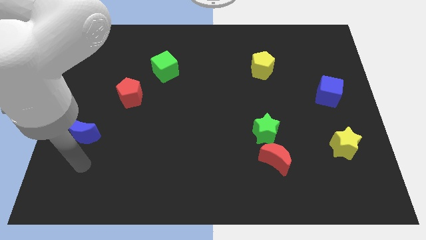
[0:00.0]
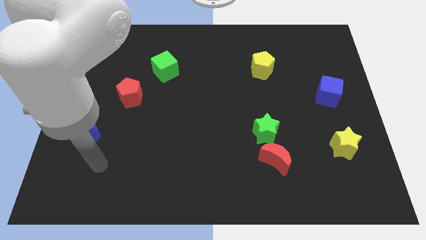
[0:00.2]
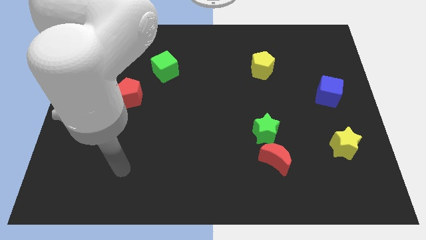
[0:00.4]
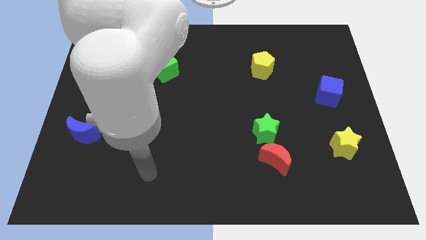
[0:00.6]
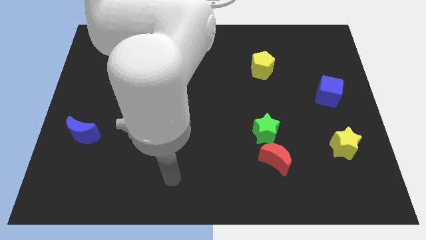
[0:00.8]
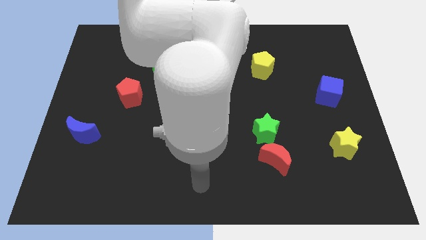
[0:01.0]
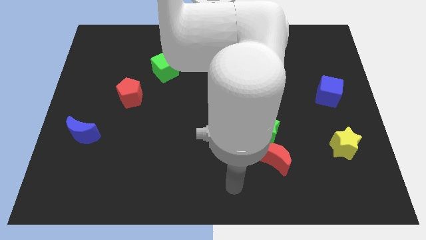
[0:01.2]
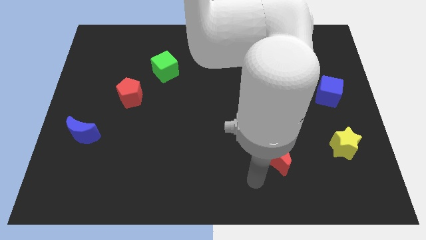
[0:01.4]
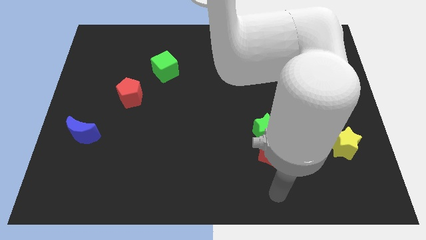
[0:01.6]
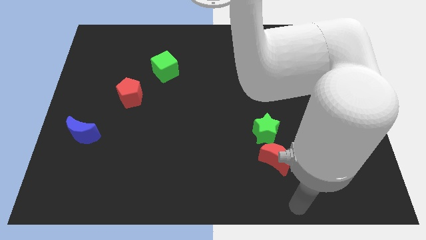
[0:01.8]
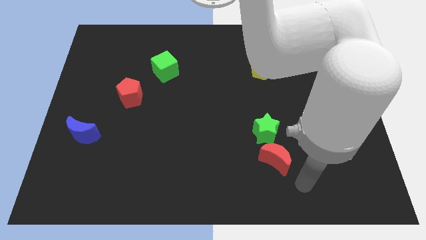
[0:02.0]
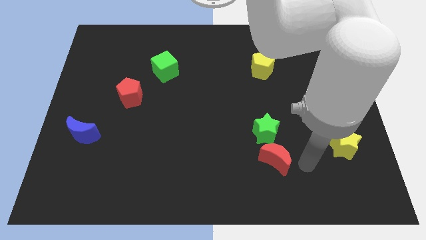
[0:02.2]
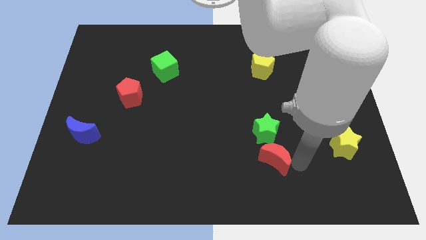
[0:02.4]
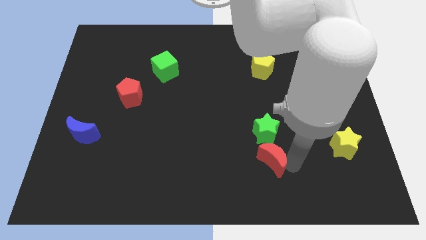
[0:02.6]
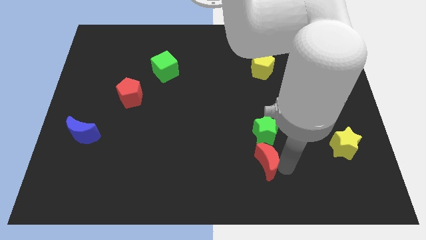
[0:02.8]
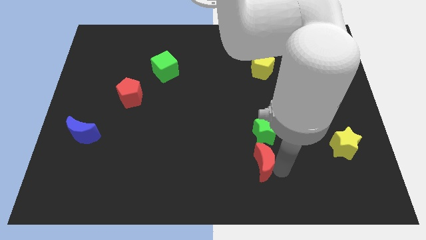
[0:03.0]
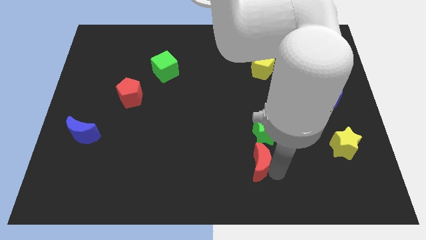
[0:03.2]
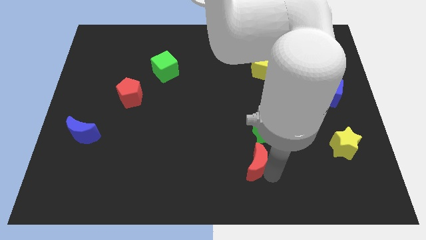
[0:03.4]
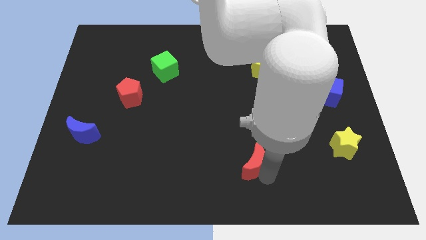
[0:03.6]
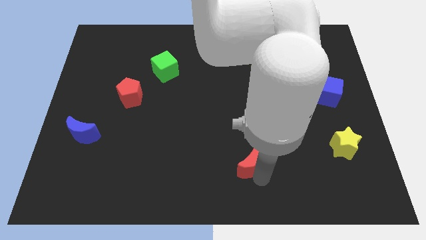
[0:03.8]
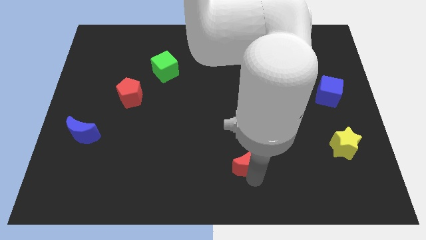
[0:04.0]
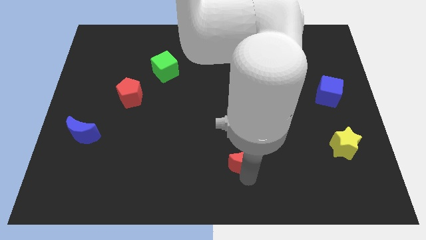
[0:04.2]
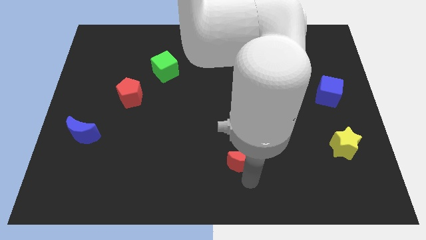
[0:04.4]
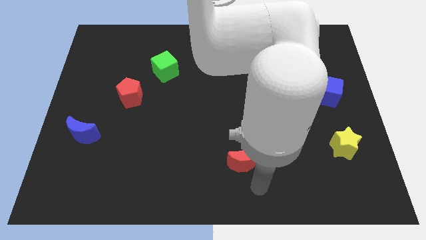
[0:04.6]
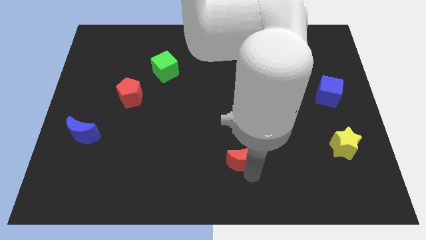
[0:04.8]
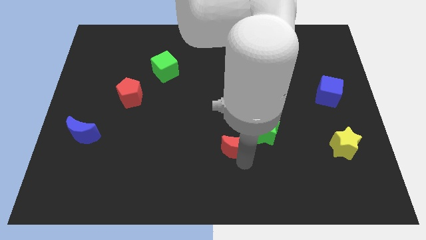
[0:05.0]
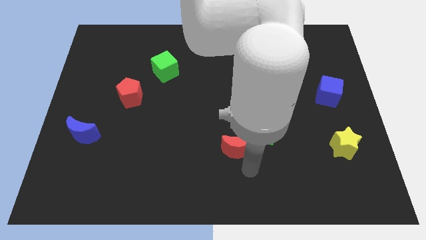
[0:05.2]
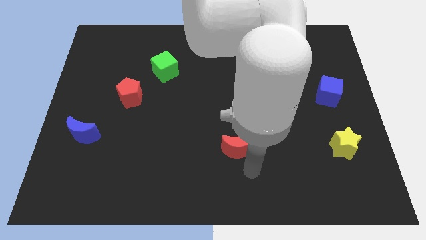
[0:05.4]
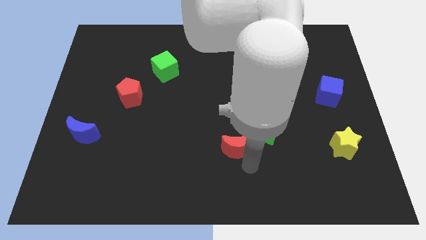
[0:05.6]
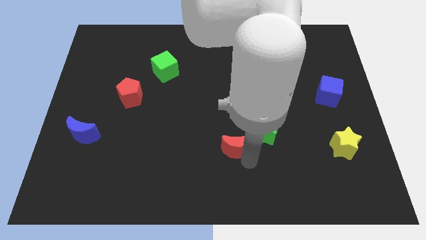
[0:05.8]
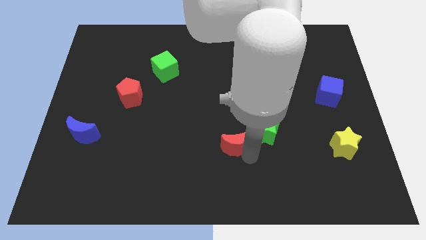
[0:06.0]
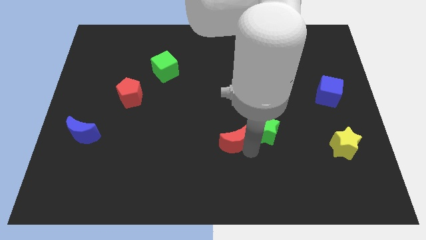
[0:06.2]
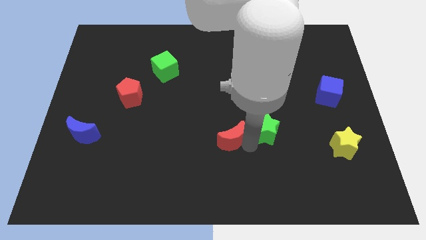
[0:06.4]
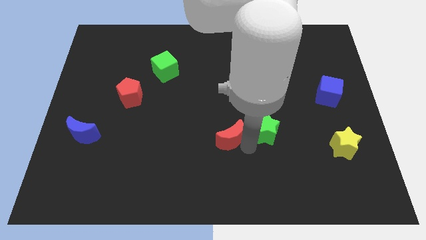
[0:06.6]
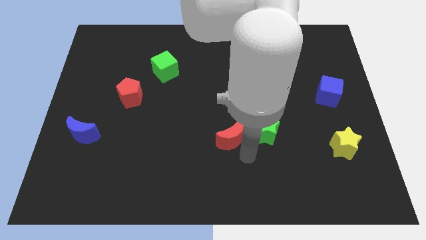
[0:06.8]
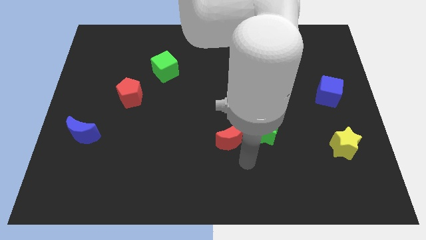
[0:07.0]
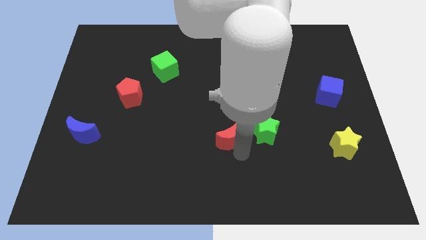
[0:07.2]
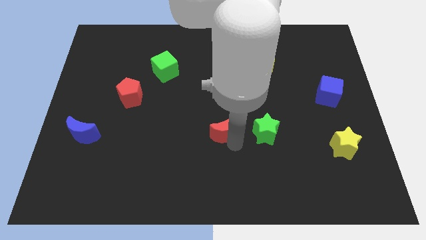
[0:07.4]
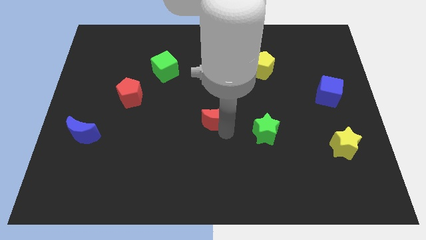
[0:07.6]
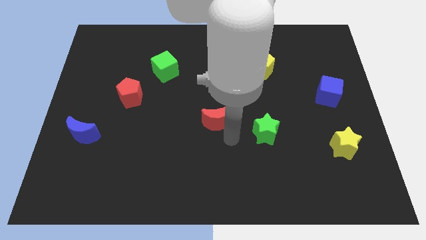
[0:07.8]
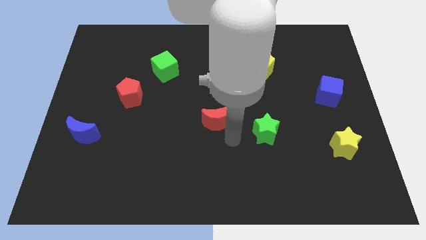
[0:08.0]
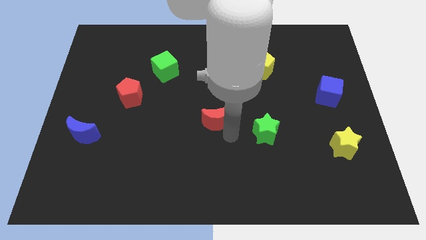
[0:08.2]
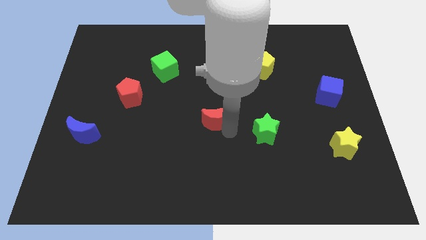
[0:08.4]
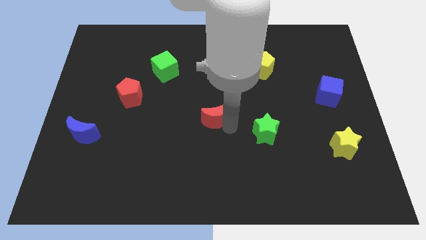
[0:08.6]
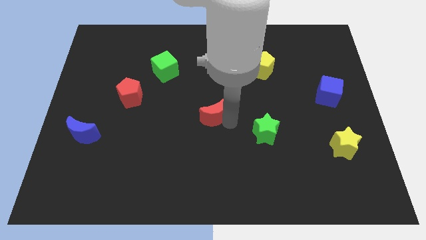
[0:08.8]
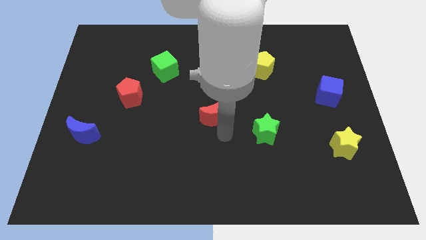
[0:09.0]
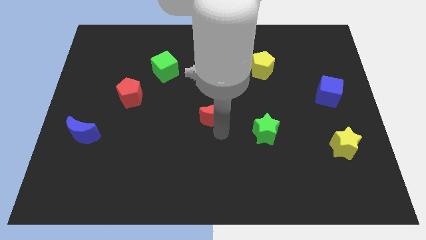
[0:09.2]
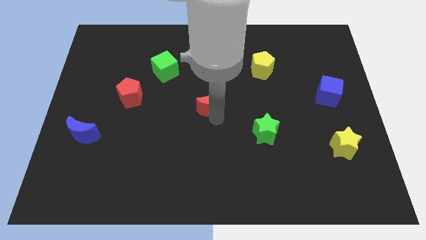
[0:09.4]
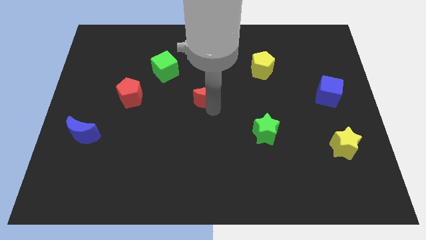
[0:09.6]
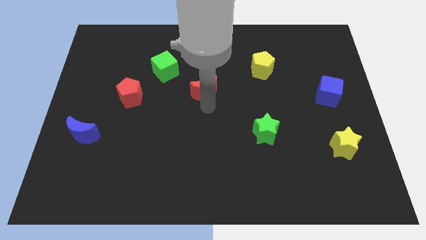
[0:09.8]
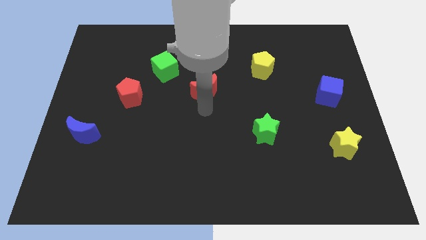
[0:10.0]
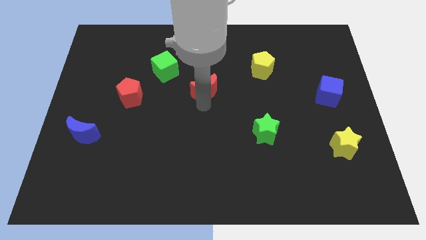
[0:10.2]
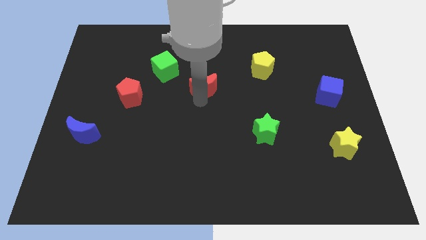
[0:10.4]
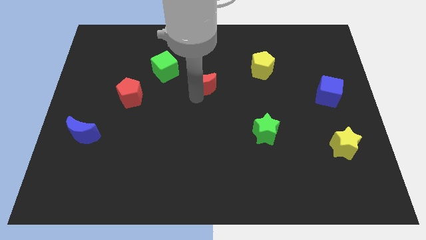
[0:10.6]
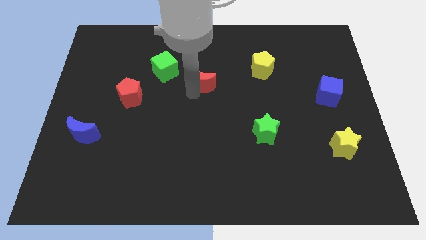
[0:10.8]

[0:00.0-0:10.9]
move the red moon just right of the green cube

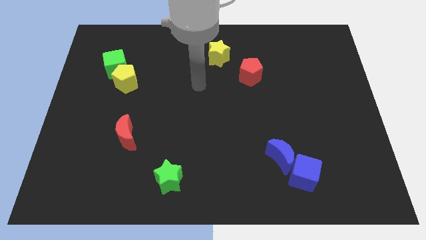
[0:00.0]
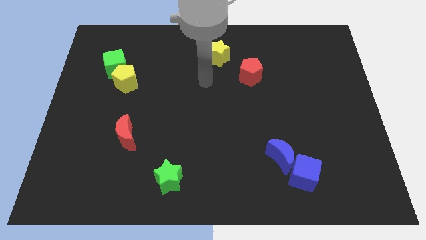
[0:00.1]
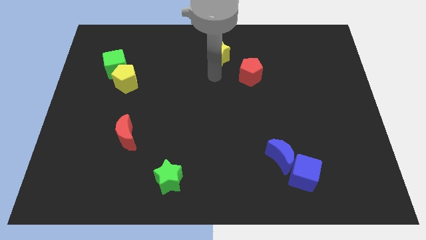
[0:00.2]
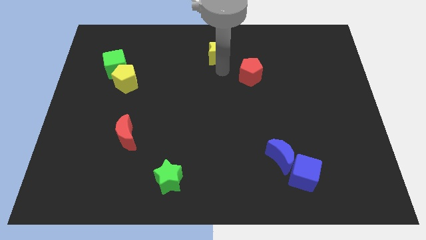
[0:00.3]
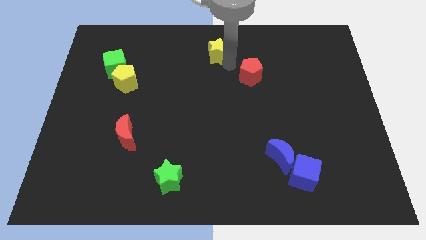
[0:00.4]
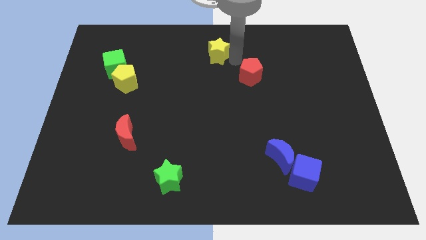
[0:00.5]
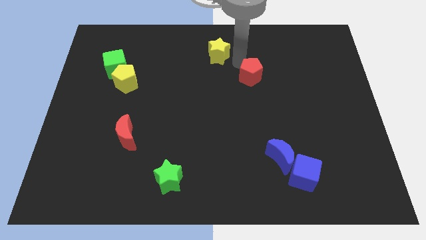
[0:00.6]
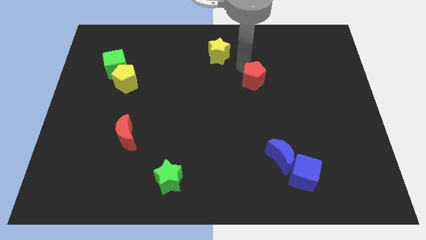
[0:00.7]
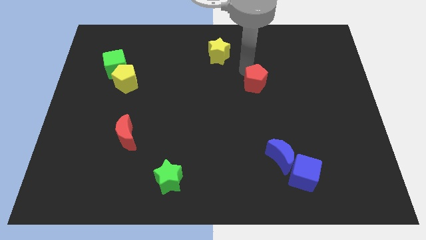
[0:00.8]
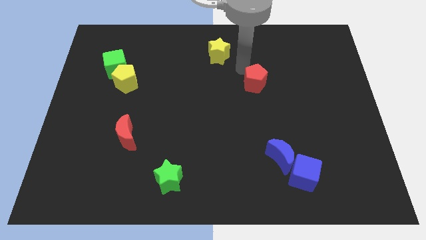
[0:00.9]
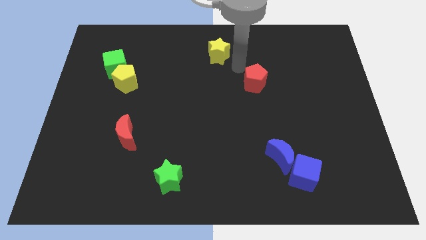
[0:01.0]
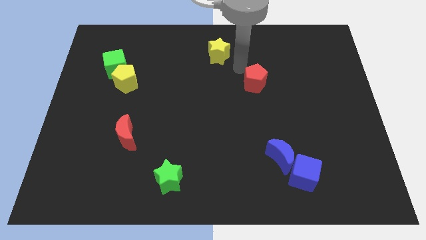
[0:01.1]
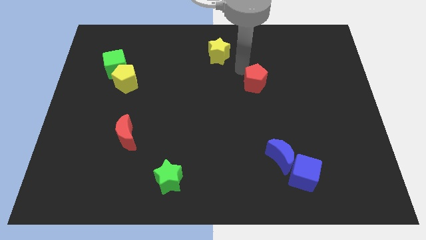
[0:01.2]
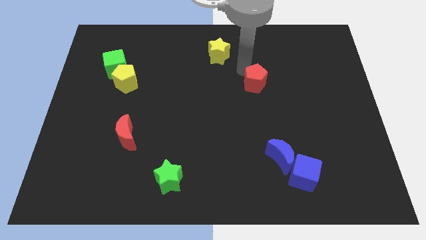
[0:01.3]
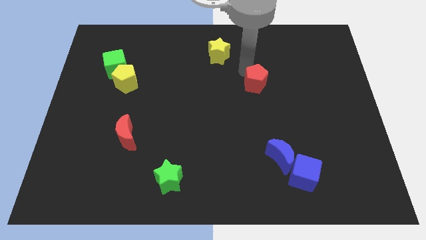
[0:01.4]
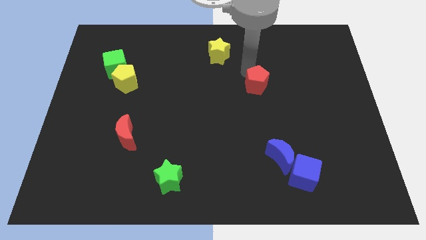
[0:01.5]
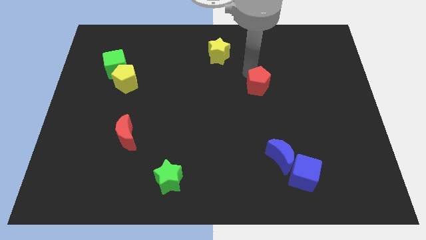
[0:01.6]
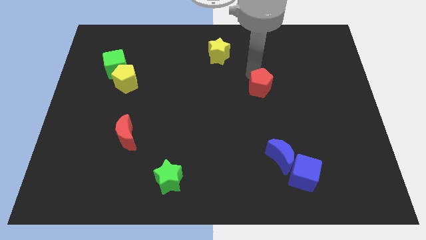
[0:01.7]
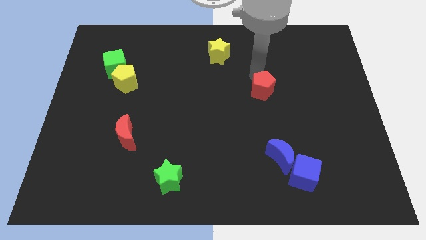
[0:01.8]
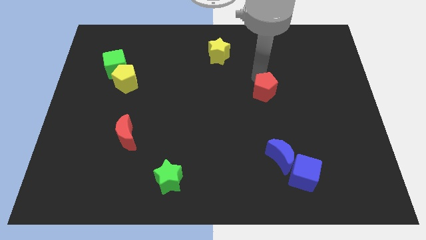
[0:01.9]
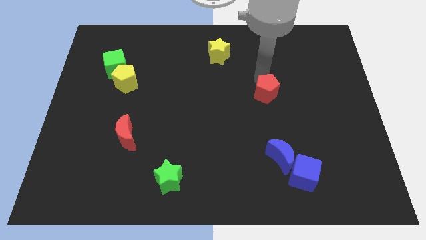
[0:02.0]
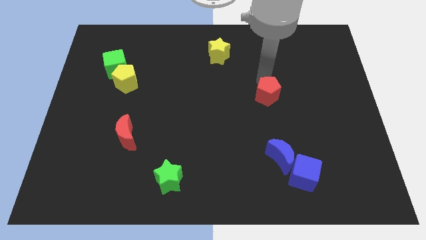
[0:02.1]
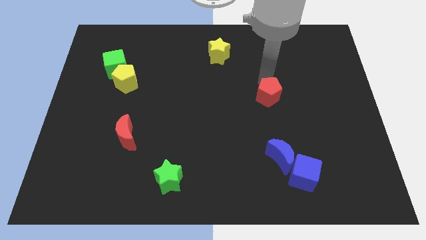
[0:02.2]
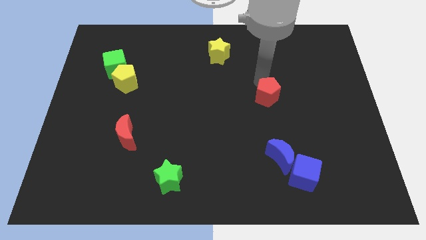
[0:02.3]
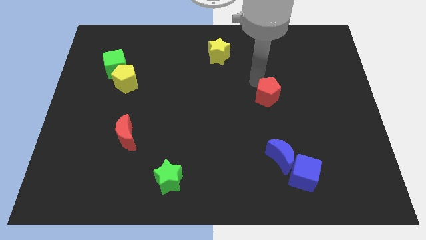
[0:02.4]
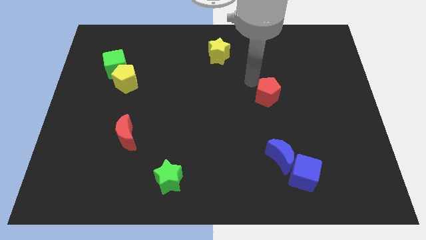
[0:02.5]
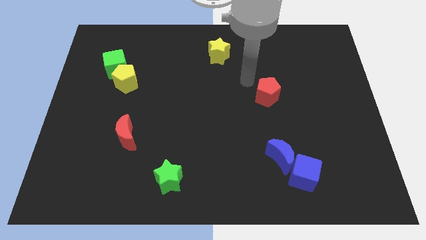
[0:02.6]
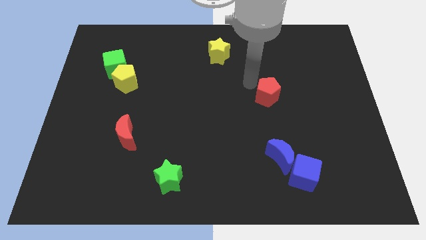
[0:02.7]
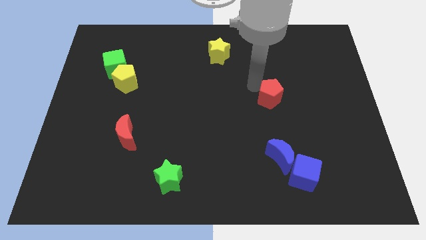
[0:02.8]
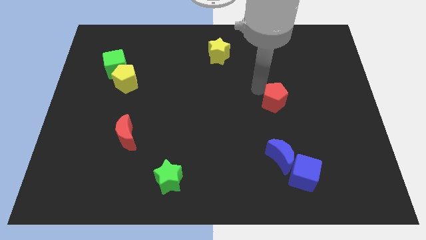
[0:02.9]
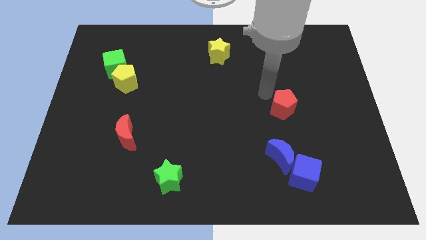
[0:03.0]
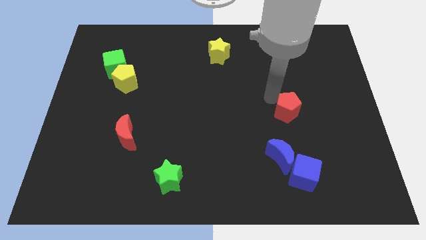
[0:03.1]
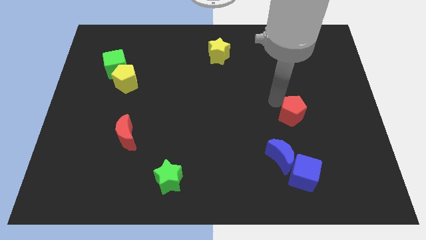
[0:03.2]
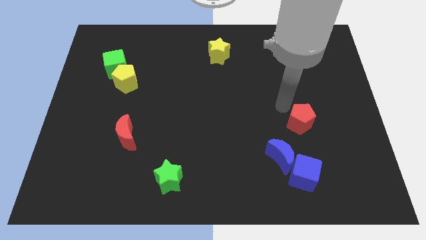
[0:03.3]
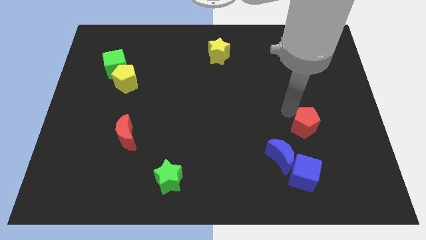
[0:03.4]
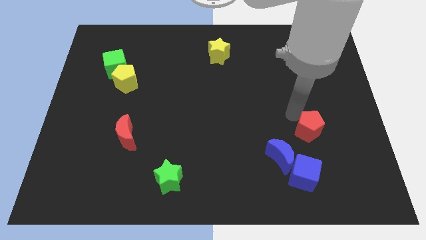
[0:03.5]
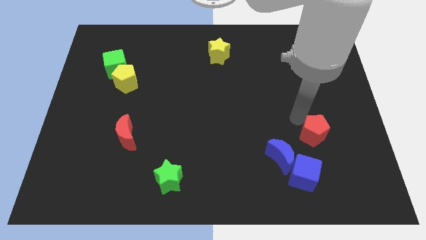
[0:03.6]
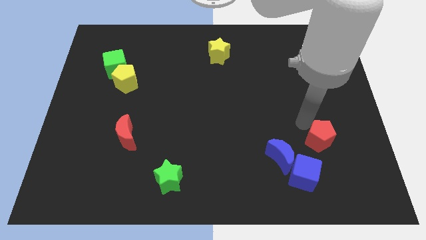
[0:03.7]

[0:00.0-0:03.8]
push the red pentagon to the right of the blue moon
